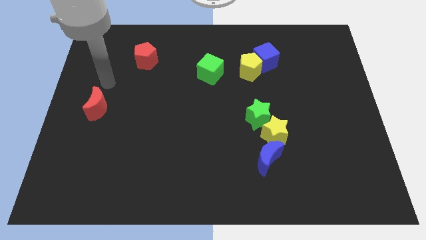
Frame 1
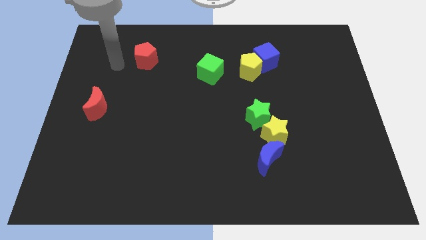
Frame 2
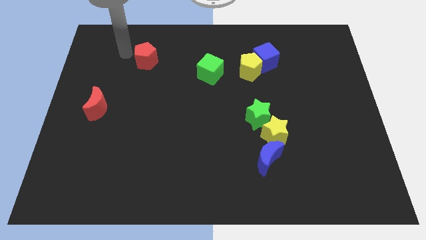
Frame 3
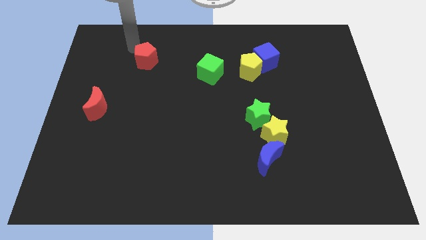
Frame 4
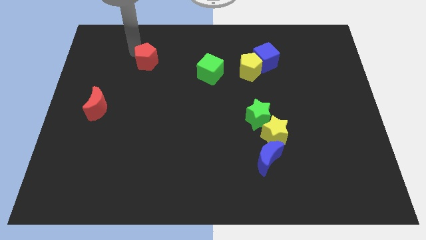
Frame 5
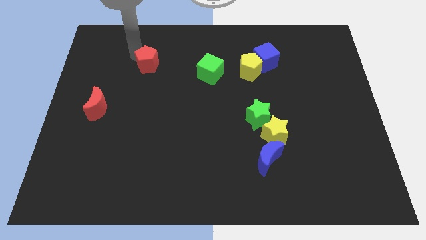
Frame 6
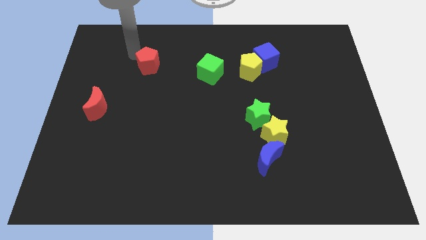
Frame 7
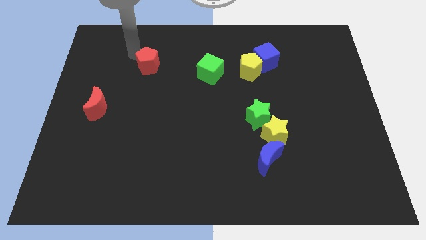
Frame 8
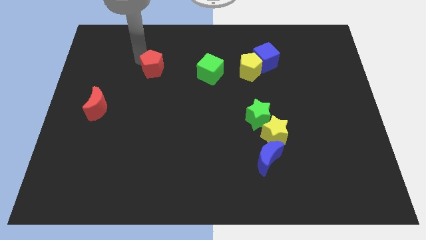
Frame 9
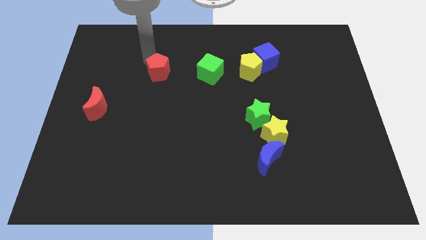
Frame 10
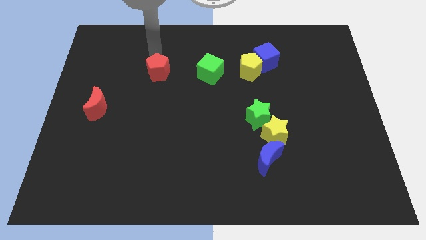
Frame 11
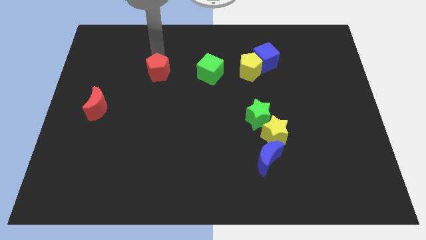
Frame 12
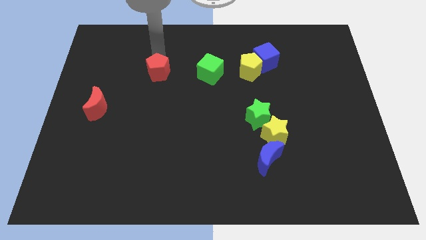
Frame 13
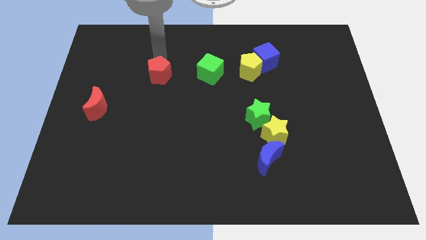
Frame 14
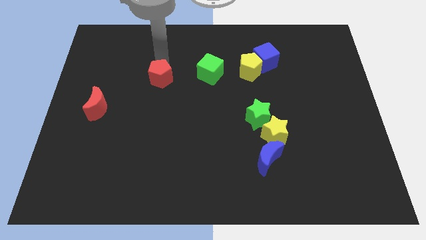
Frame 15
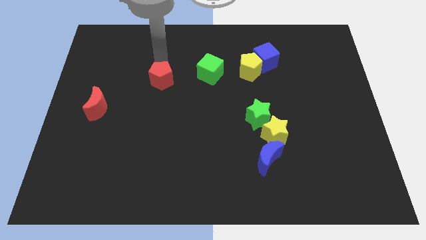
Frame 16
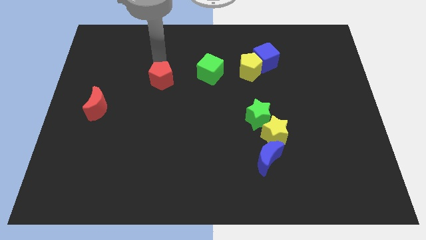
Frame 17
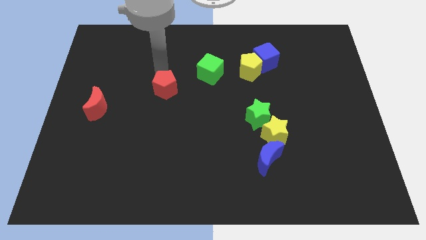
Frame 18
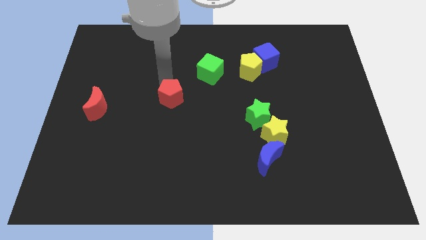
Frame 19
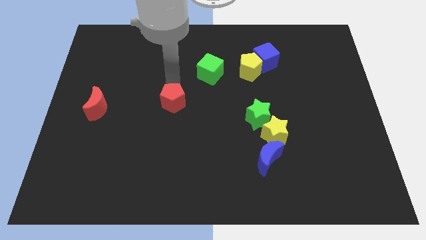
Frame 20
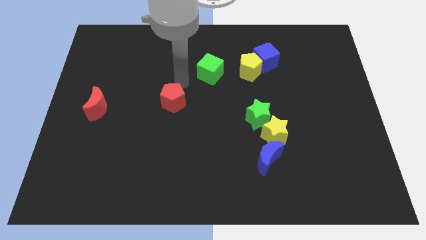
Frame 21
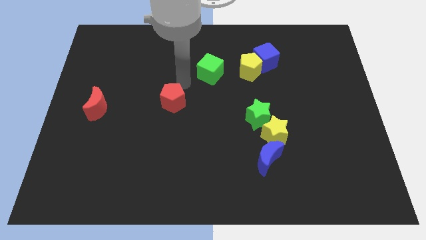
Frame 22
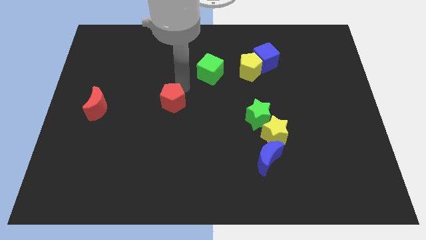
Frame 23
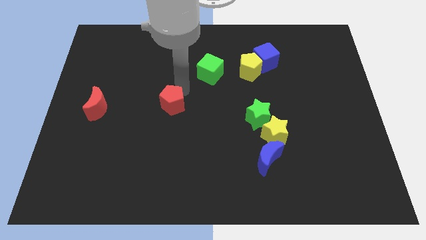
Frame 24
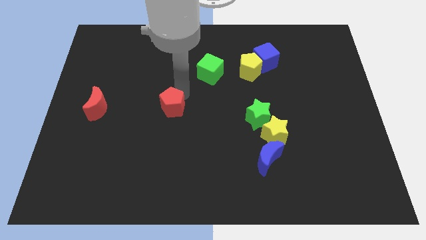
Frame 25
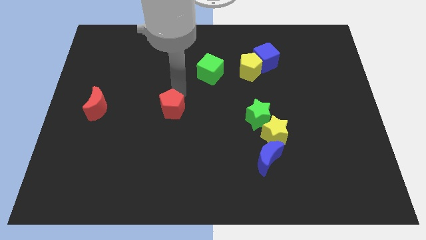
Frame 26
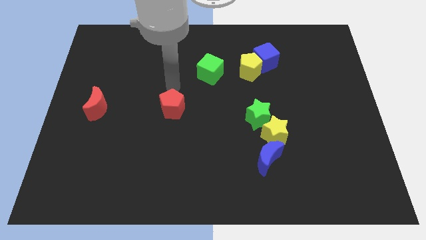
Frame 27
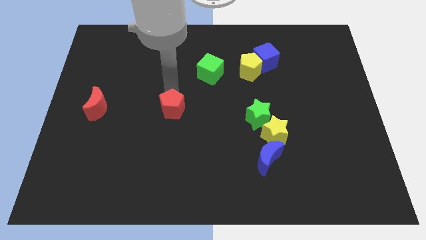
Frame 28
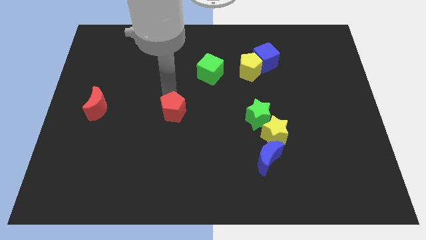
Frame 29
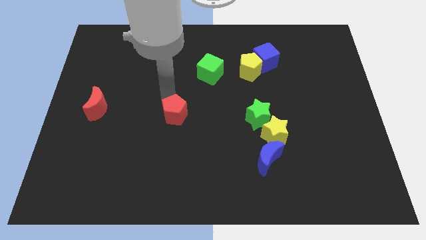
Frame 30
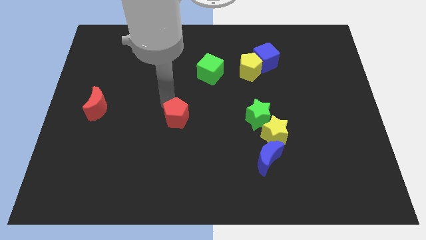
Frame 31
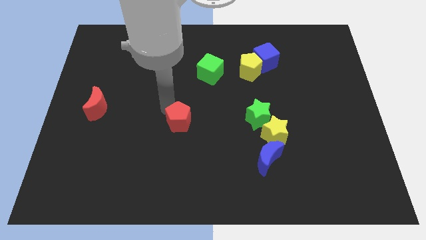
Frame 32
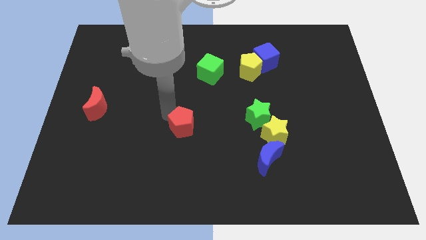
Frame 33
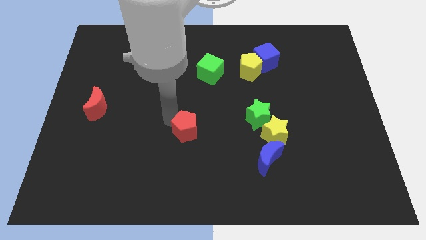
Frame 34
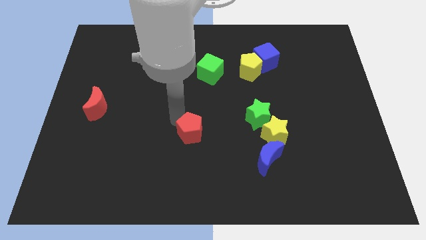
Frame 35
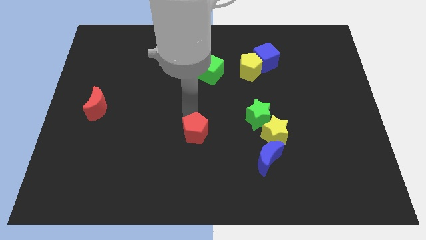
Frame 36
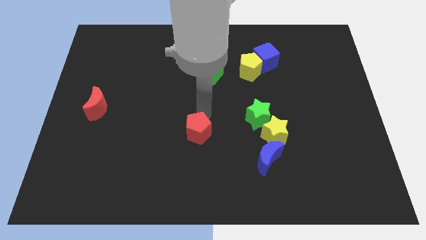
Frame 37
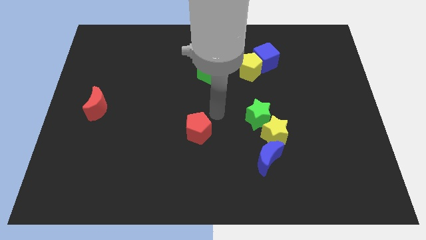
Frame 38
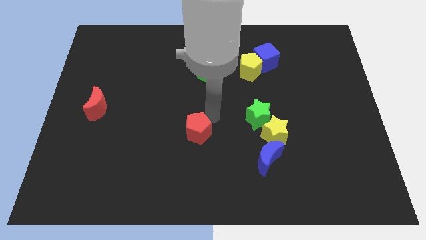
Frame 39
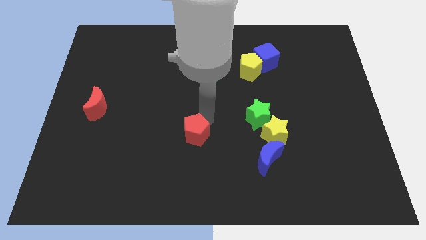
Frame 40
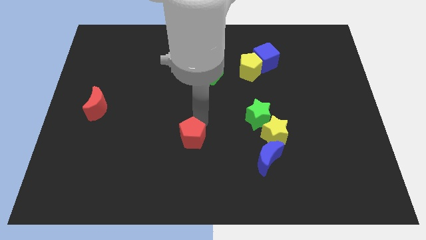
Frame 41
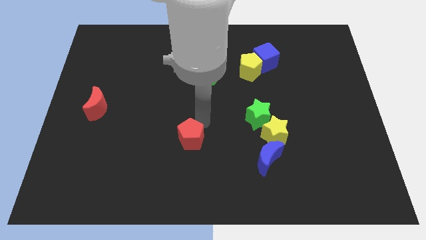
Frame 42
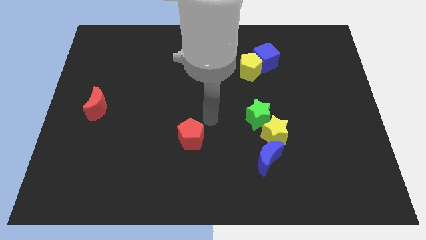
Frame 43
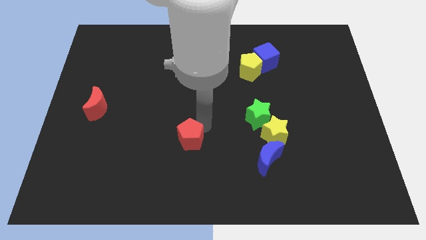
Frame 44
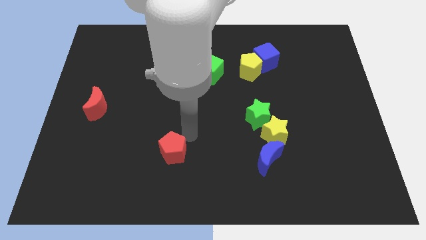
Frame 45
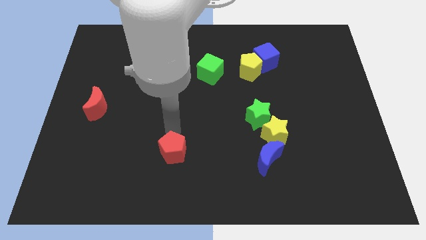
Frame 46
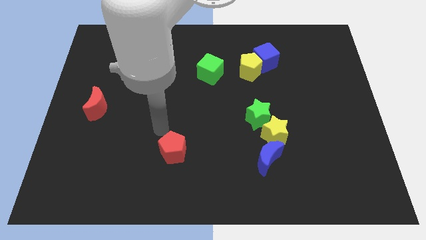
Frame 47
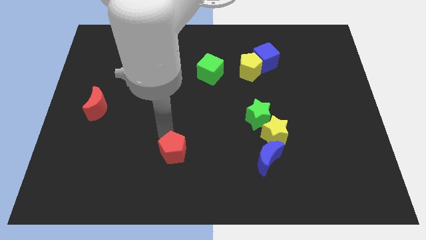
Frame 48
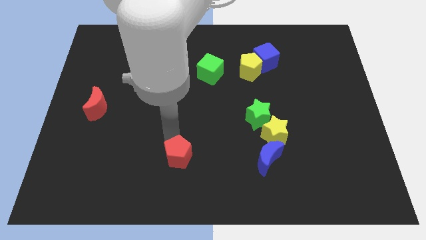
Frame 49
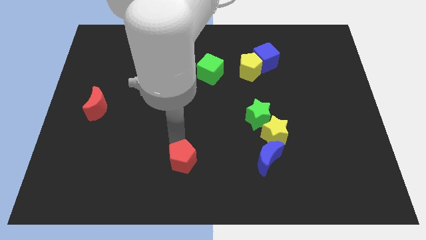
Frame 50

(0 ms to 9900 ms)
push the red pentagon to the bottom

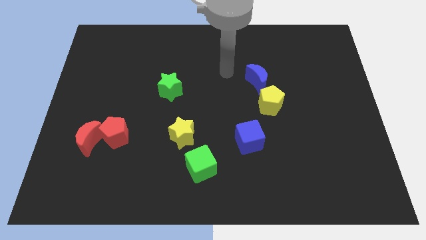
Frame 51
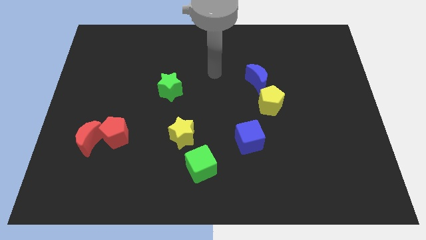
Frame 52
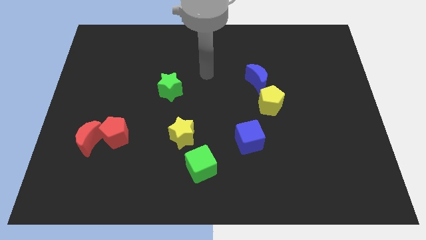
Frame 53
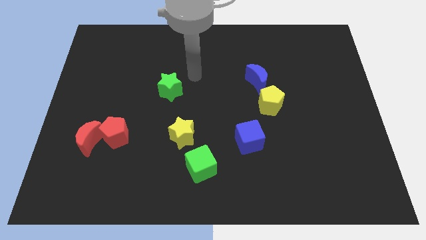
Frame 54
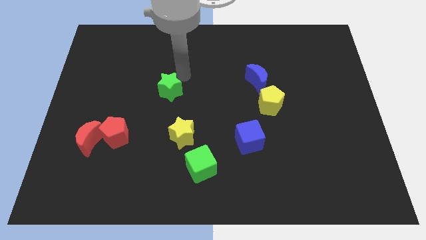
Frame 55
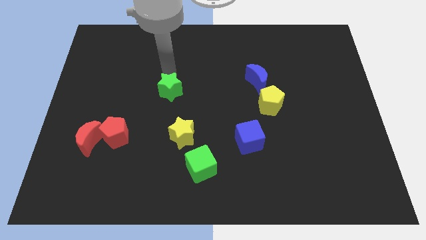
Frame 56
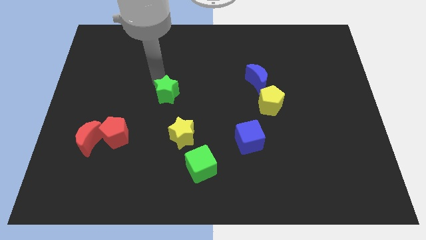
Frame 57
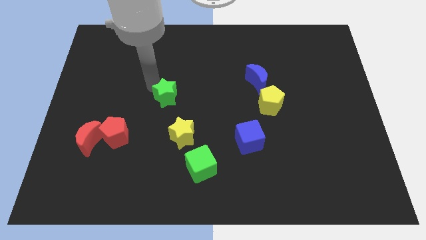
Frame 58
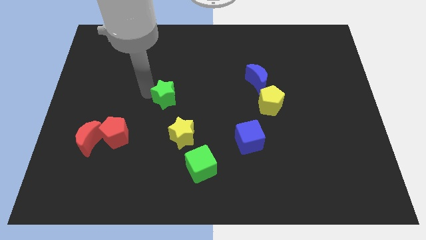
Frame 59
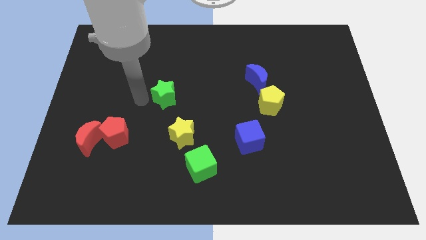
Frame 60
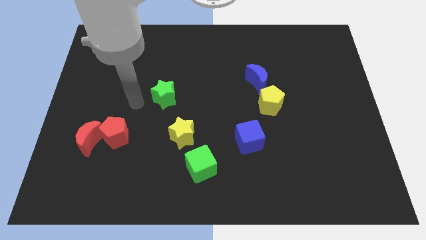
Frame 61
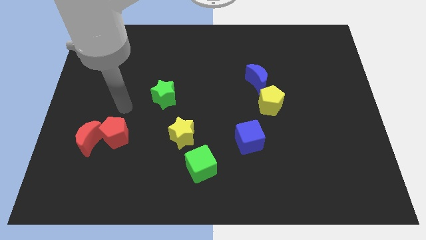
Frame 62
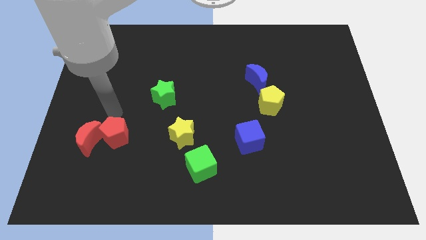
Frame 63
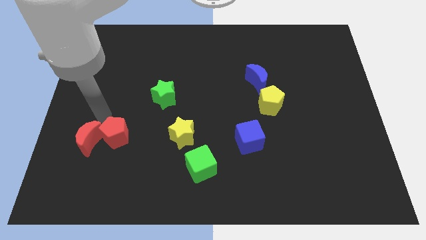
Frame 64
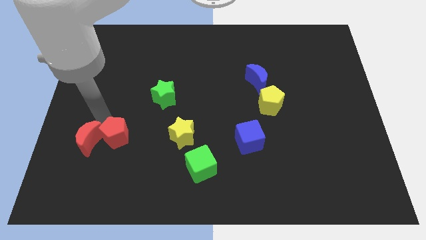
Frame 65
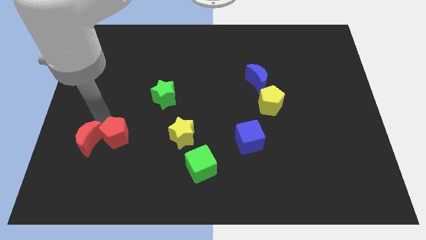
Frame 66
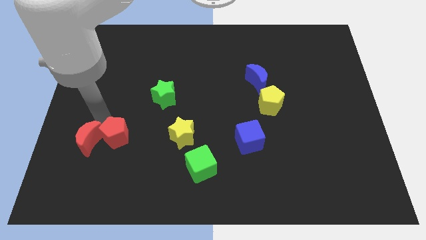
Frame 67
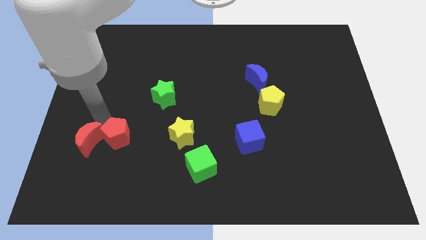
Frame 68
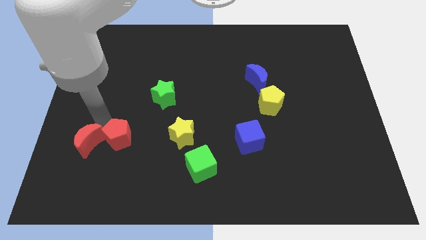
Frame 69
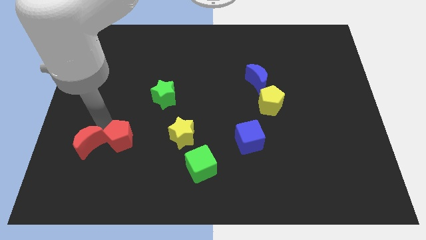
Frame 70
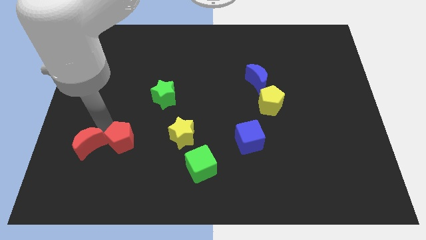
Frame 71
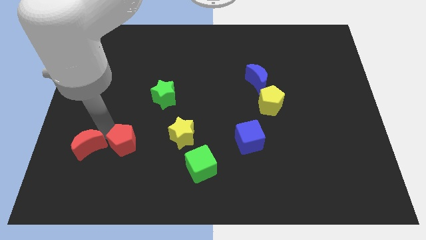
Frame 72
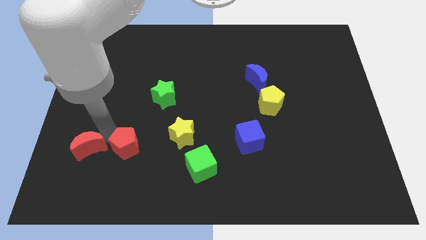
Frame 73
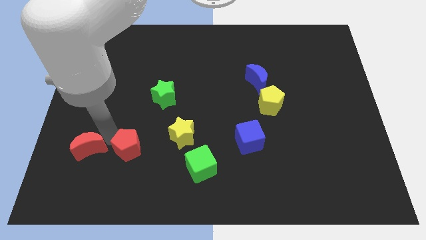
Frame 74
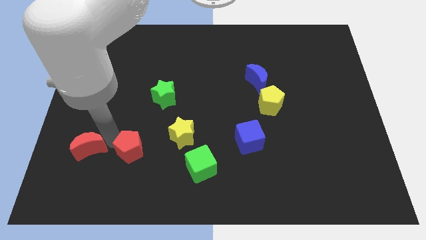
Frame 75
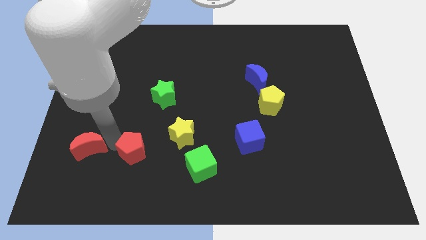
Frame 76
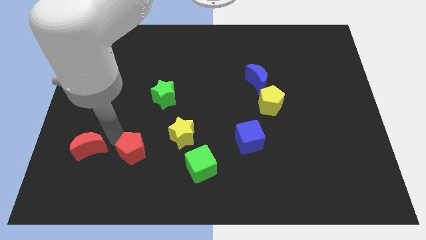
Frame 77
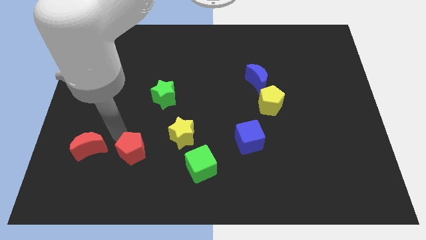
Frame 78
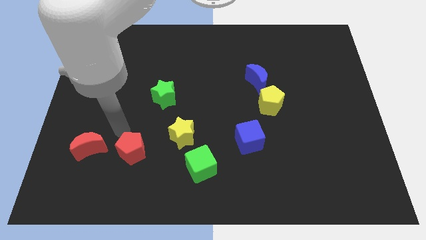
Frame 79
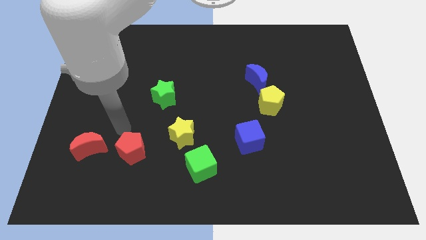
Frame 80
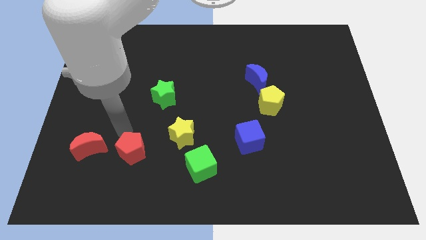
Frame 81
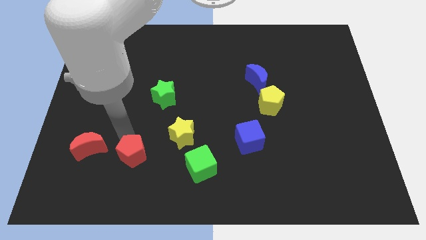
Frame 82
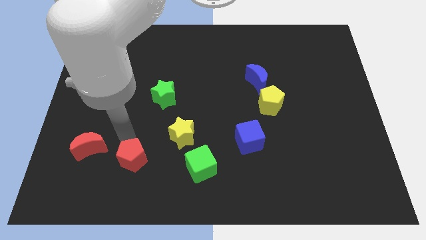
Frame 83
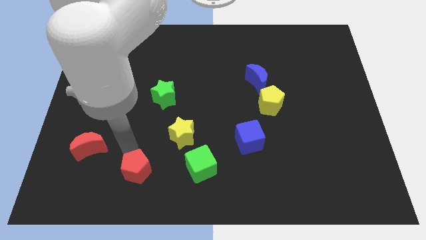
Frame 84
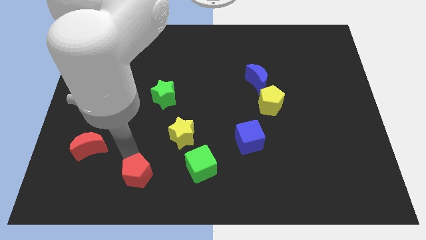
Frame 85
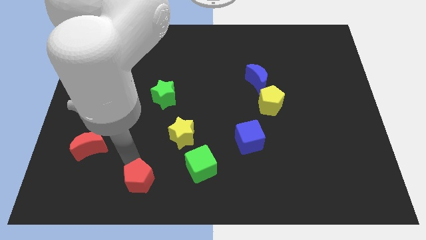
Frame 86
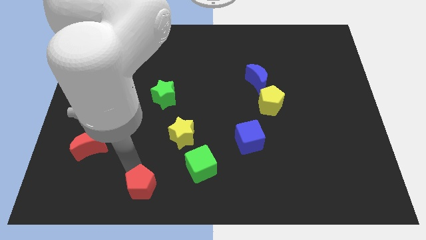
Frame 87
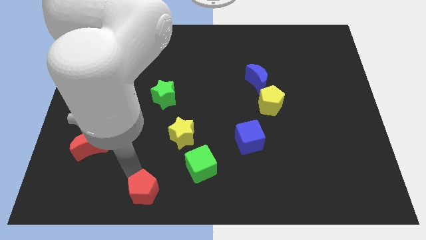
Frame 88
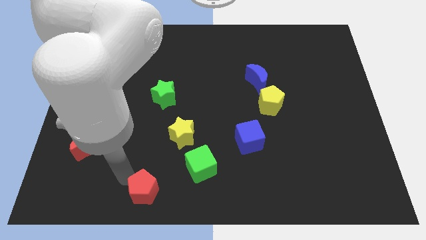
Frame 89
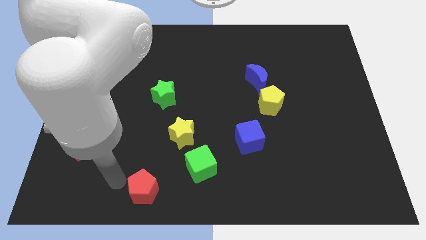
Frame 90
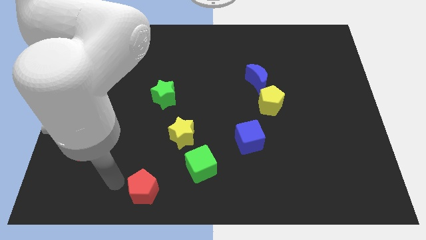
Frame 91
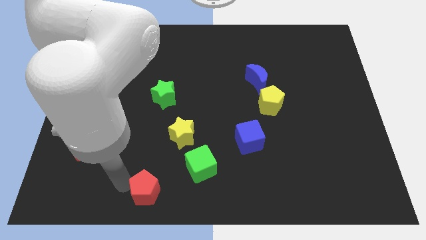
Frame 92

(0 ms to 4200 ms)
slide the red pentagon to the bottom side
